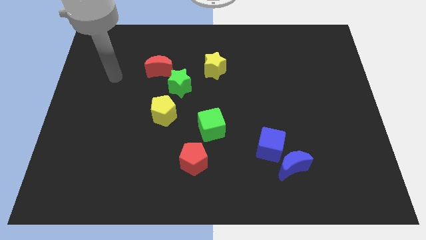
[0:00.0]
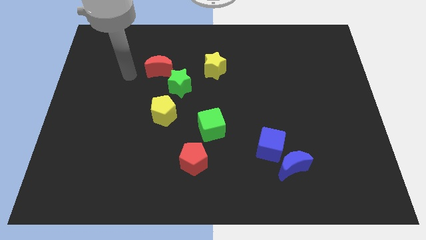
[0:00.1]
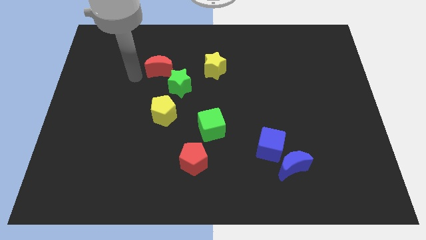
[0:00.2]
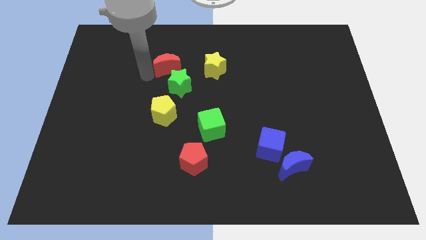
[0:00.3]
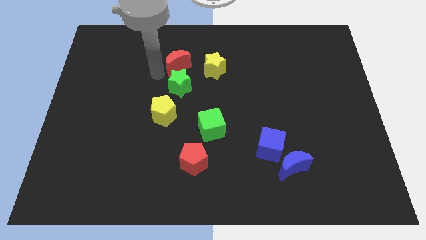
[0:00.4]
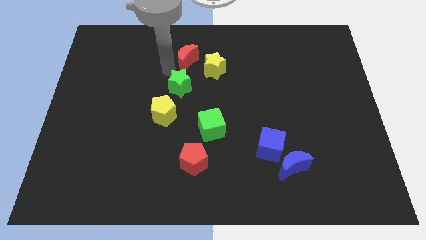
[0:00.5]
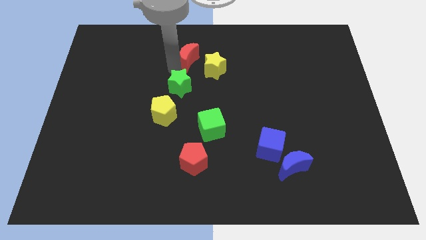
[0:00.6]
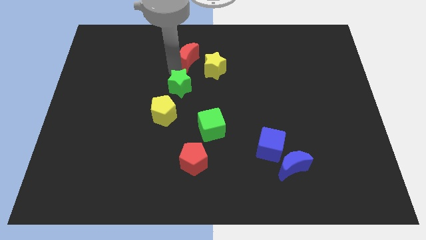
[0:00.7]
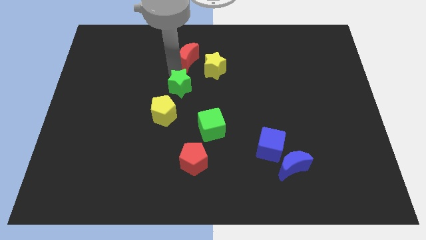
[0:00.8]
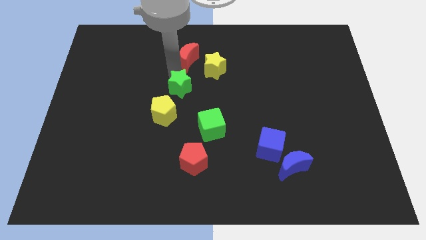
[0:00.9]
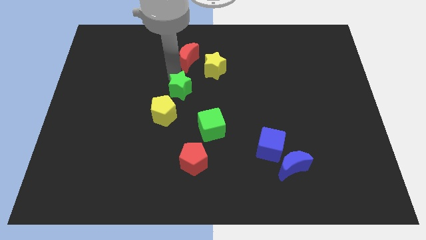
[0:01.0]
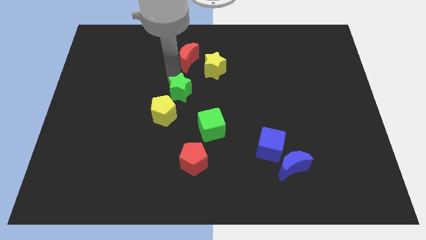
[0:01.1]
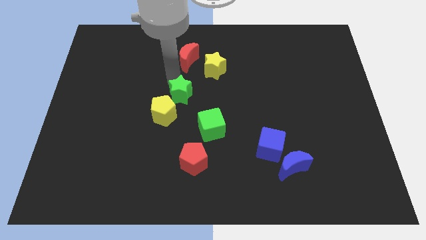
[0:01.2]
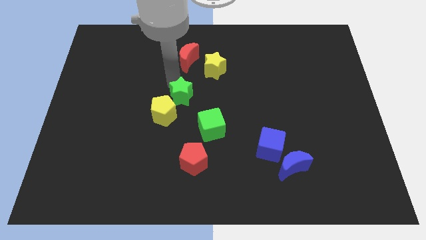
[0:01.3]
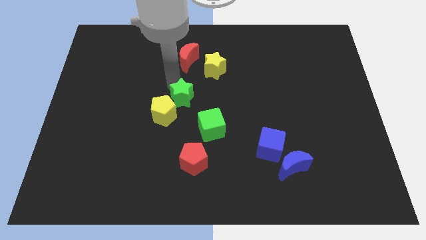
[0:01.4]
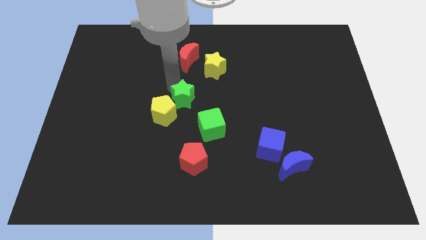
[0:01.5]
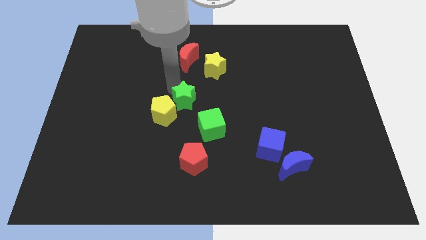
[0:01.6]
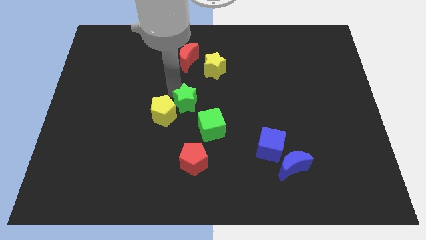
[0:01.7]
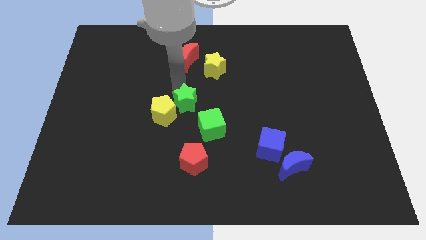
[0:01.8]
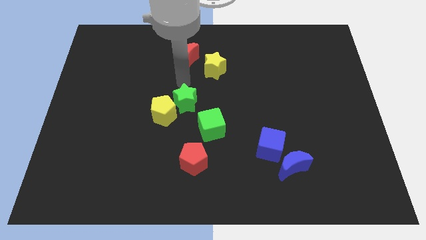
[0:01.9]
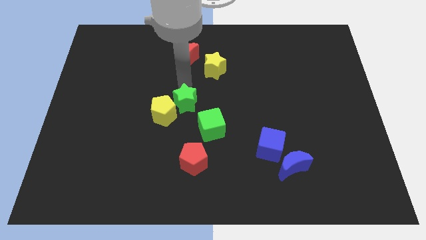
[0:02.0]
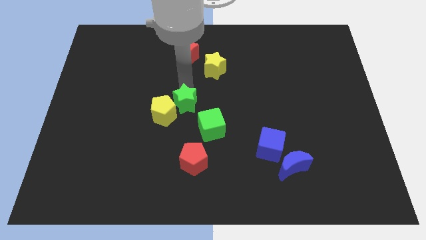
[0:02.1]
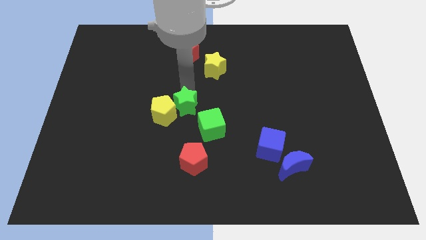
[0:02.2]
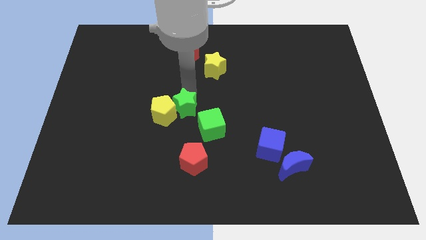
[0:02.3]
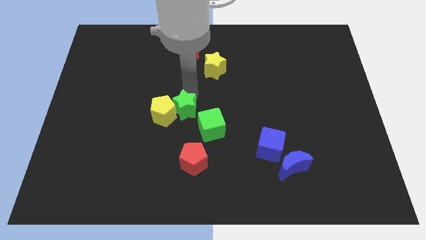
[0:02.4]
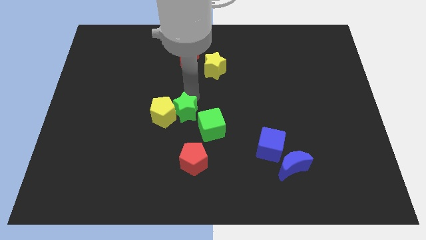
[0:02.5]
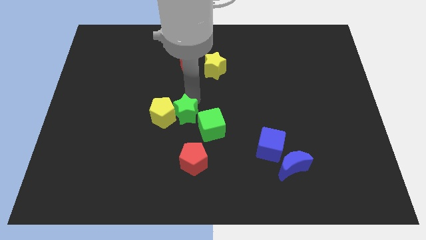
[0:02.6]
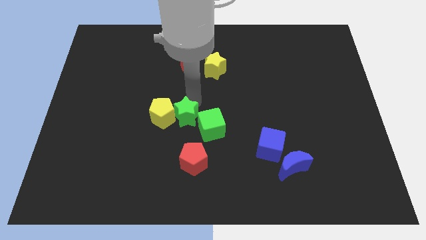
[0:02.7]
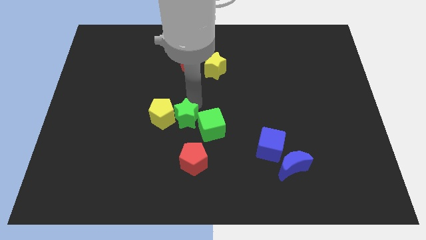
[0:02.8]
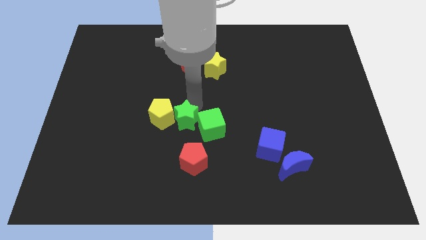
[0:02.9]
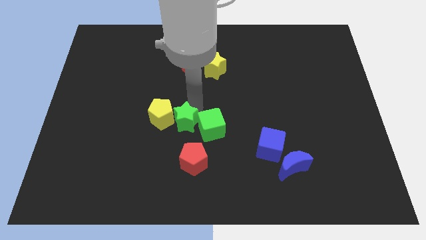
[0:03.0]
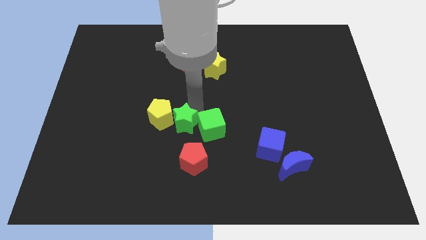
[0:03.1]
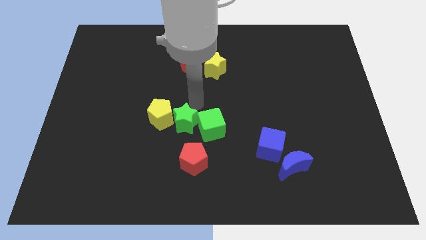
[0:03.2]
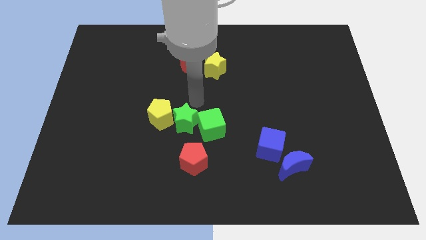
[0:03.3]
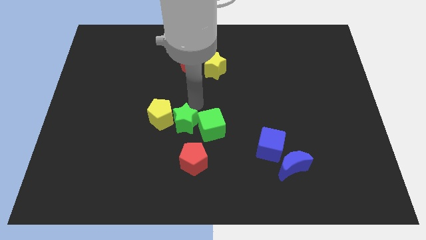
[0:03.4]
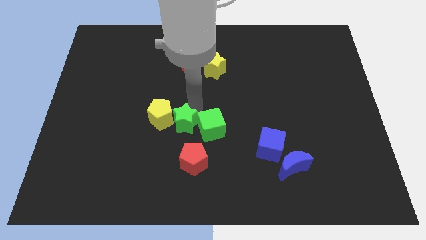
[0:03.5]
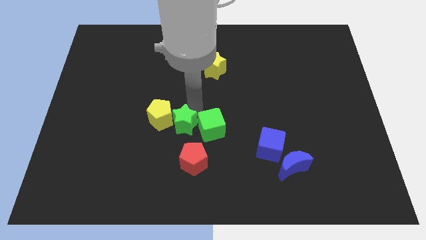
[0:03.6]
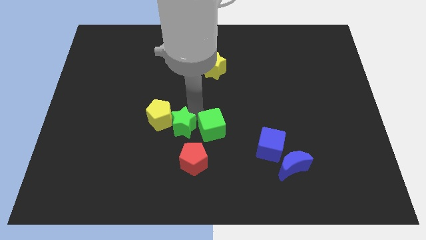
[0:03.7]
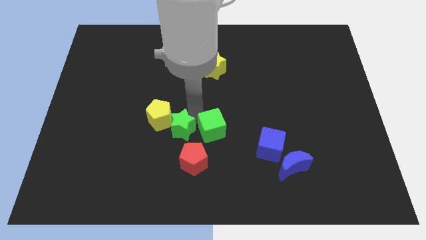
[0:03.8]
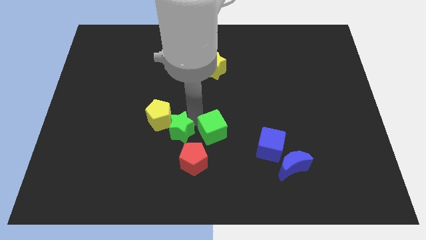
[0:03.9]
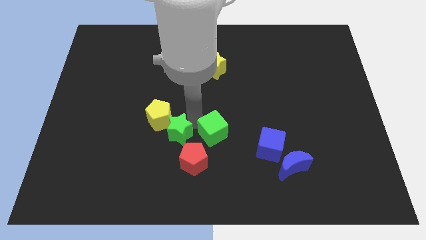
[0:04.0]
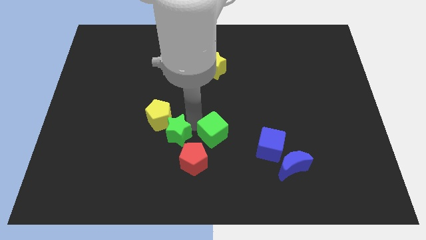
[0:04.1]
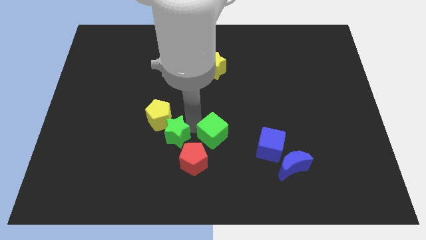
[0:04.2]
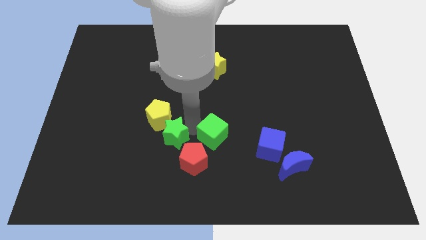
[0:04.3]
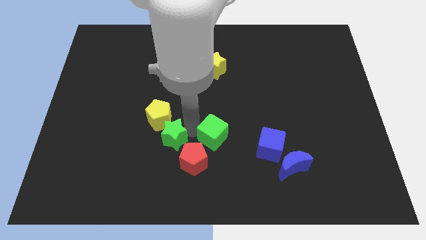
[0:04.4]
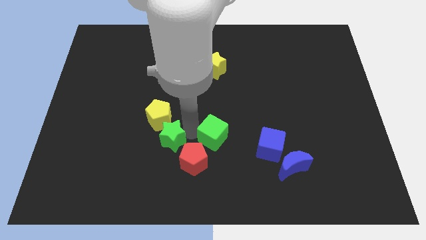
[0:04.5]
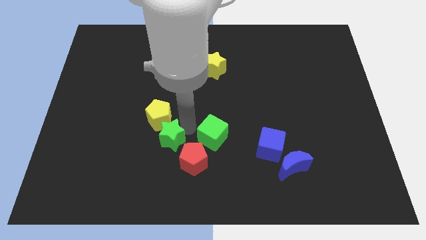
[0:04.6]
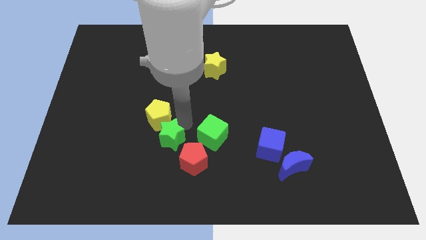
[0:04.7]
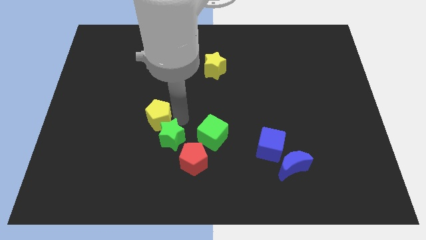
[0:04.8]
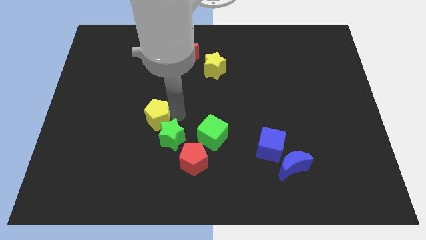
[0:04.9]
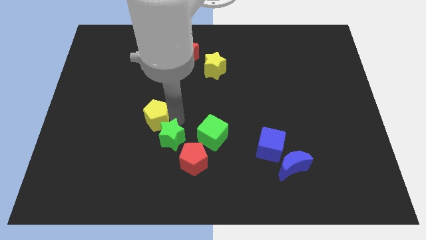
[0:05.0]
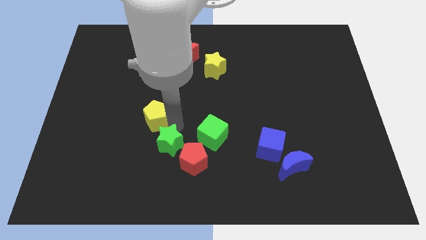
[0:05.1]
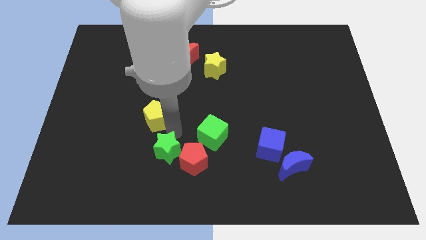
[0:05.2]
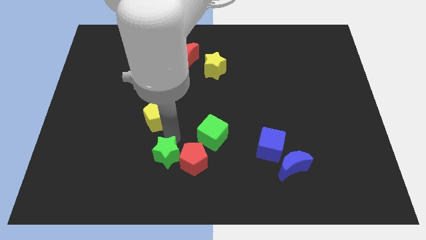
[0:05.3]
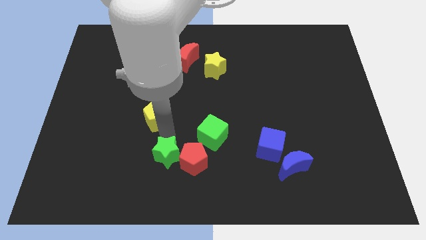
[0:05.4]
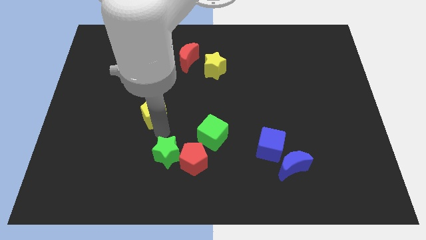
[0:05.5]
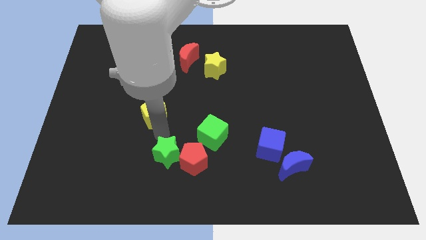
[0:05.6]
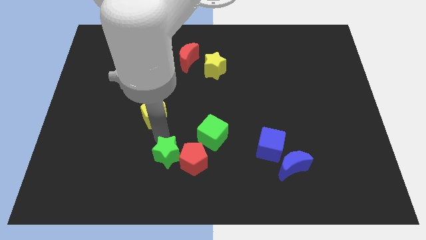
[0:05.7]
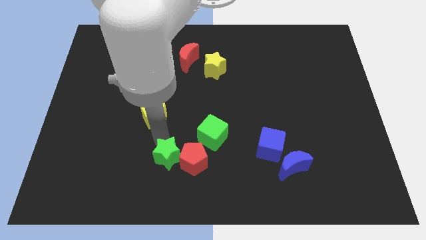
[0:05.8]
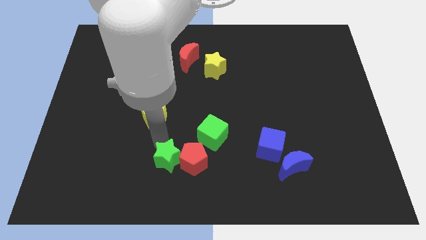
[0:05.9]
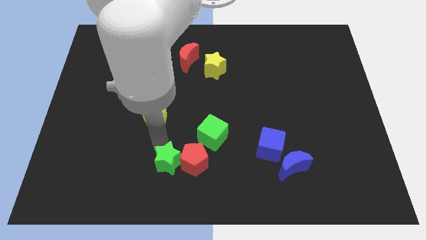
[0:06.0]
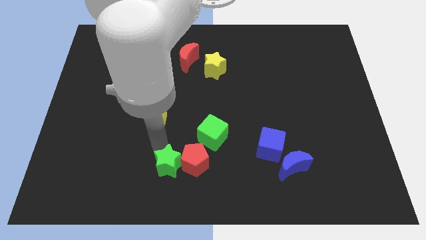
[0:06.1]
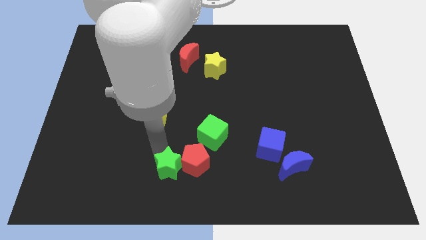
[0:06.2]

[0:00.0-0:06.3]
push the green star to the bottom

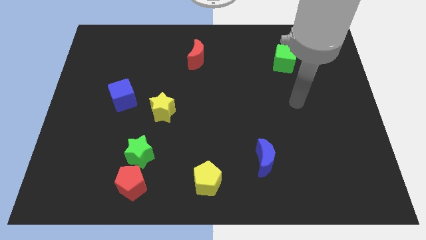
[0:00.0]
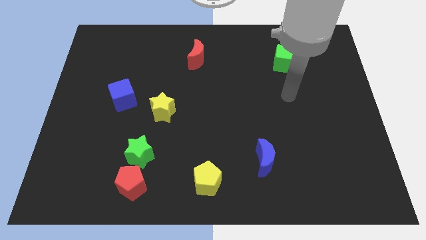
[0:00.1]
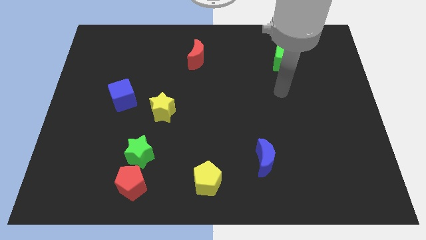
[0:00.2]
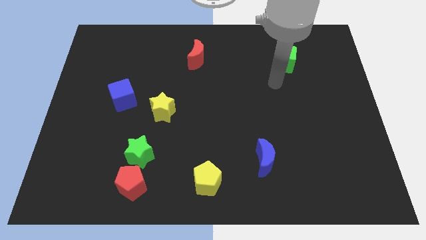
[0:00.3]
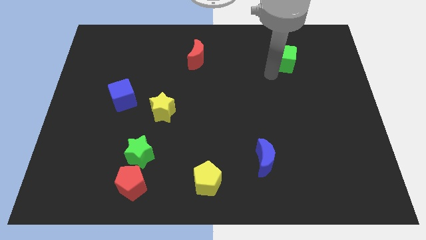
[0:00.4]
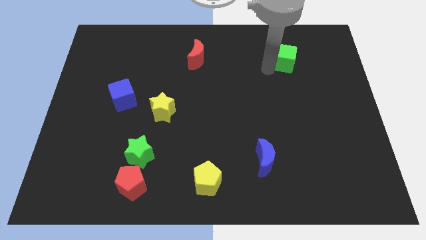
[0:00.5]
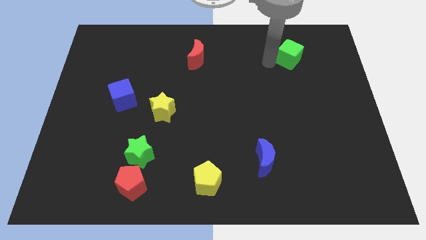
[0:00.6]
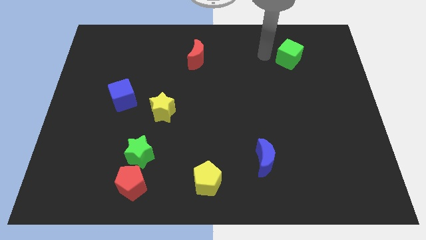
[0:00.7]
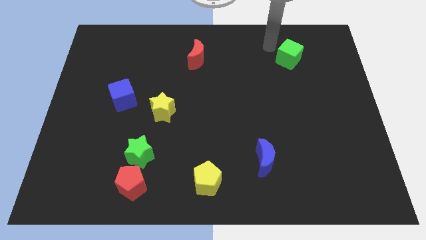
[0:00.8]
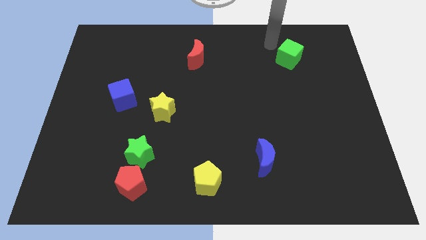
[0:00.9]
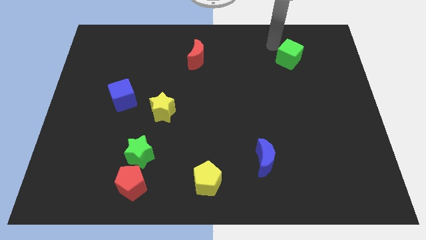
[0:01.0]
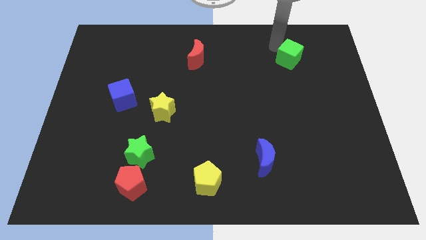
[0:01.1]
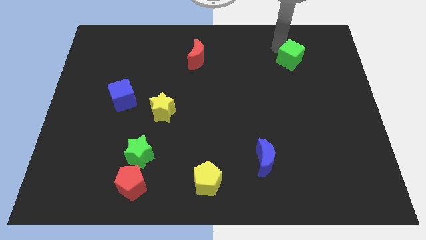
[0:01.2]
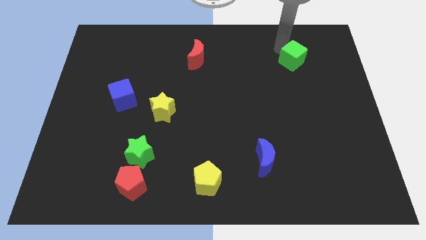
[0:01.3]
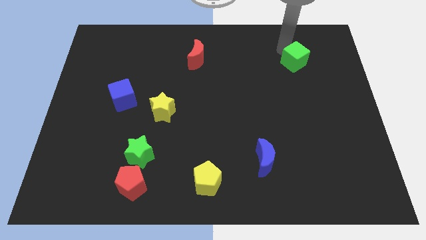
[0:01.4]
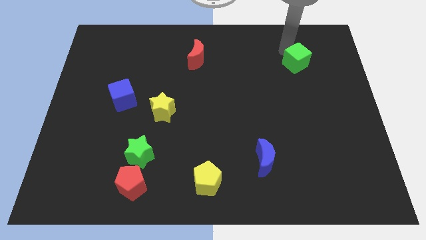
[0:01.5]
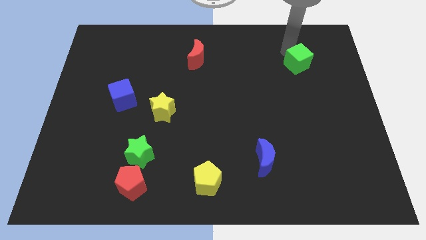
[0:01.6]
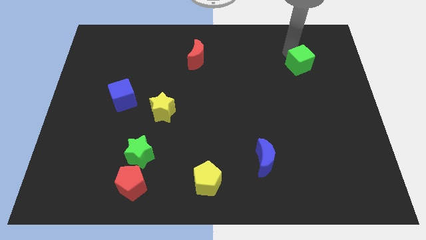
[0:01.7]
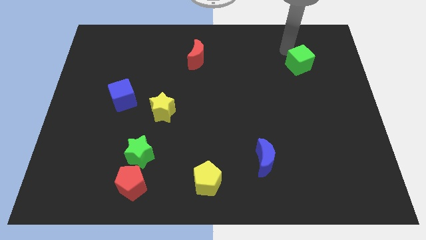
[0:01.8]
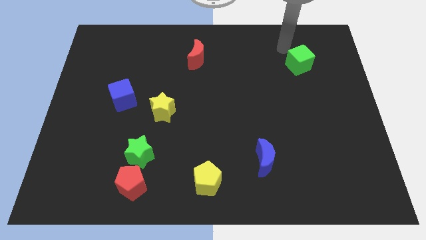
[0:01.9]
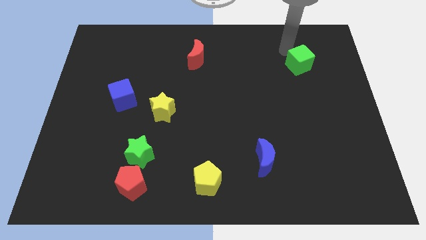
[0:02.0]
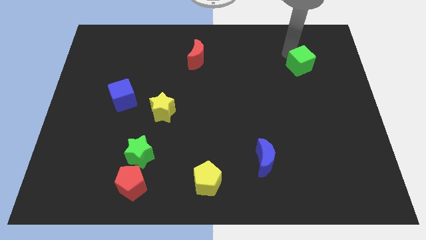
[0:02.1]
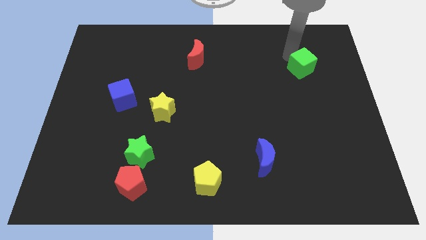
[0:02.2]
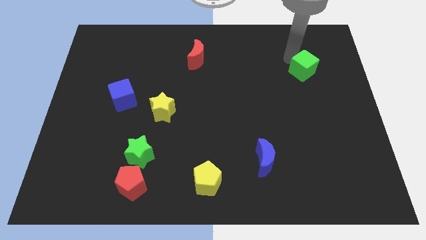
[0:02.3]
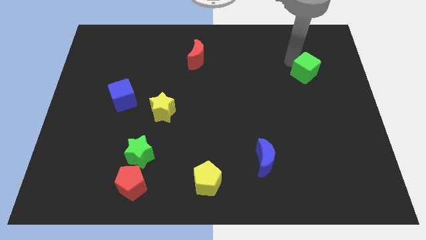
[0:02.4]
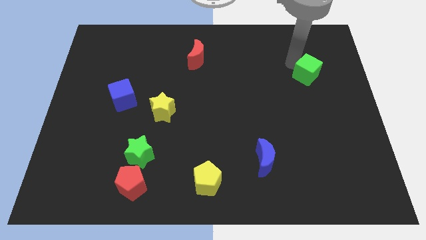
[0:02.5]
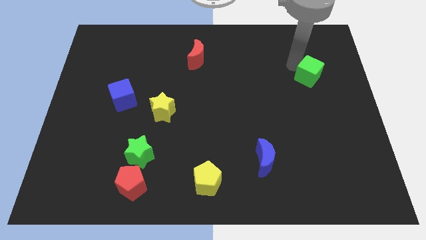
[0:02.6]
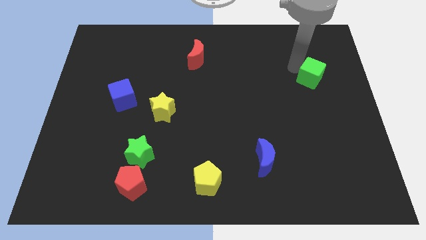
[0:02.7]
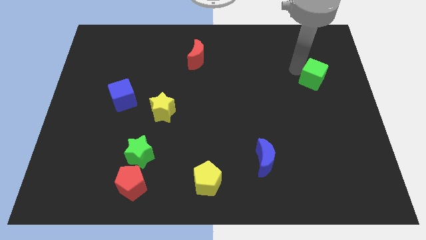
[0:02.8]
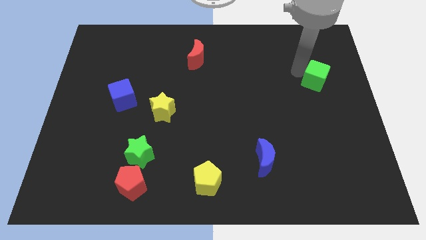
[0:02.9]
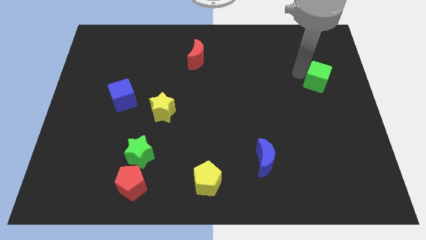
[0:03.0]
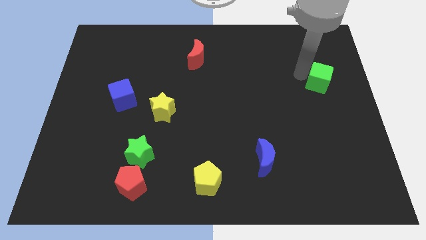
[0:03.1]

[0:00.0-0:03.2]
move the green cube to the center right
